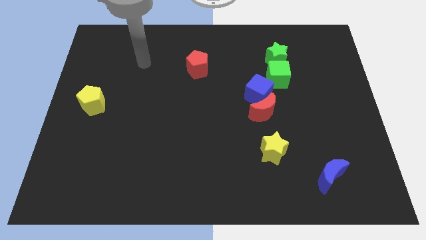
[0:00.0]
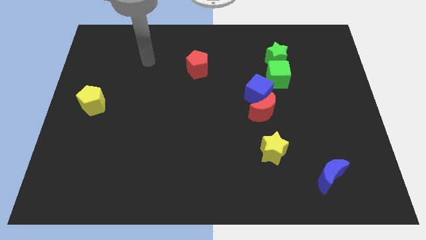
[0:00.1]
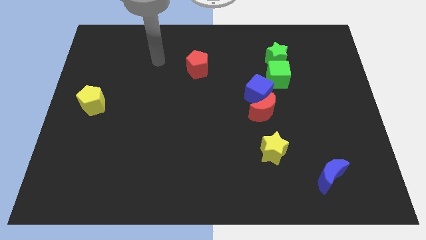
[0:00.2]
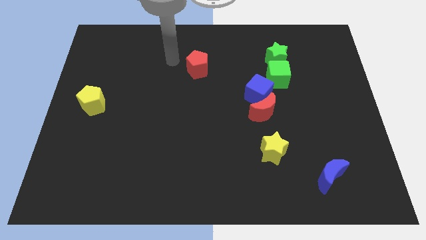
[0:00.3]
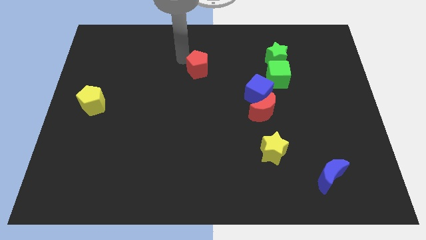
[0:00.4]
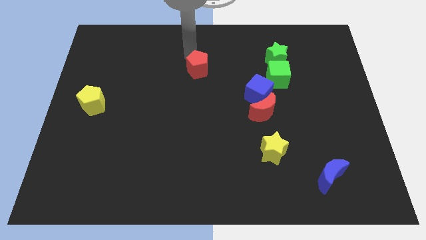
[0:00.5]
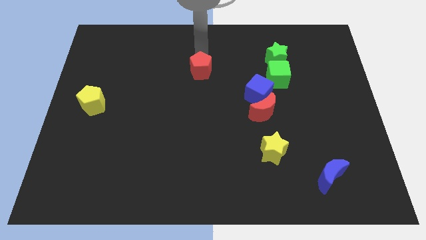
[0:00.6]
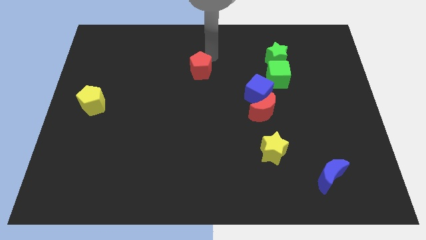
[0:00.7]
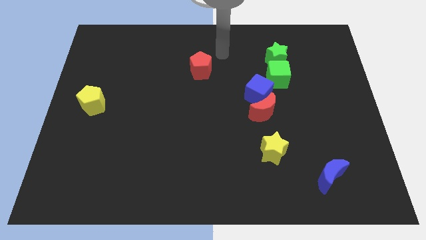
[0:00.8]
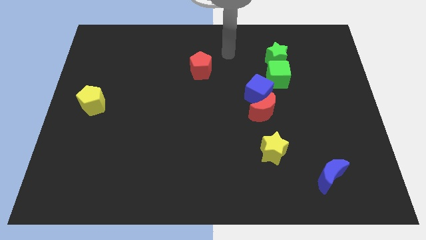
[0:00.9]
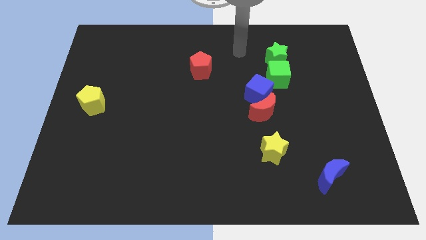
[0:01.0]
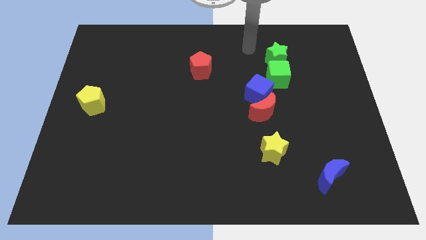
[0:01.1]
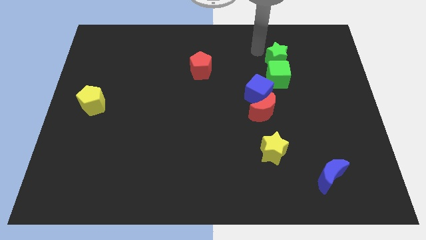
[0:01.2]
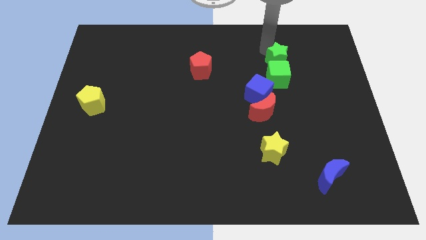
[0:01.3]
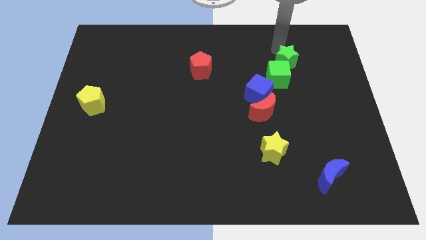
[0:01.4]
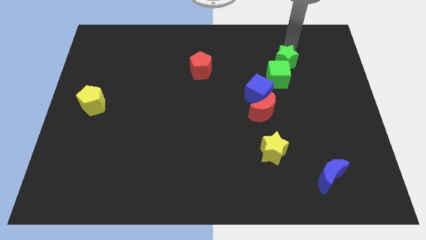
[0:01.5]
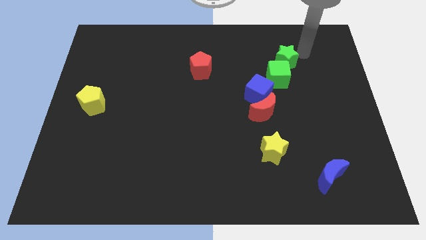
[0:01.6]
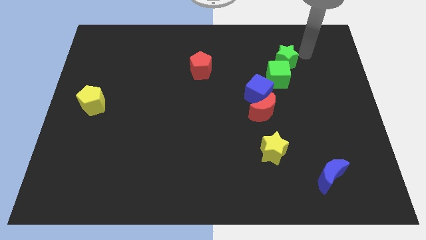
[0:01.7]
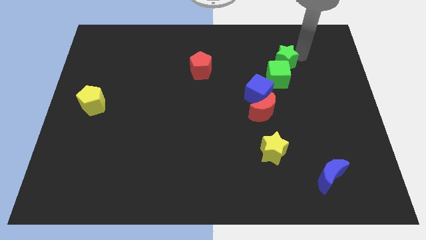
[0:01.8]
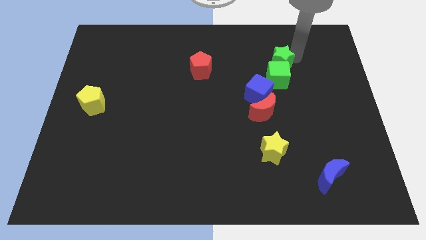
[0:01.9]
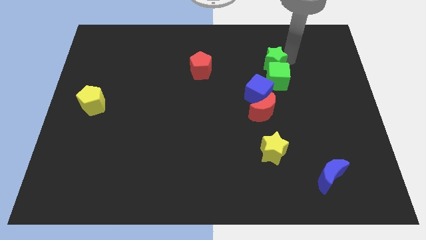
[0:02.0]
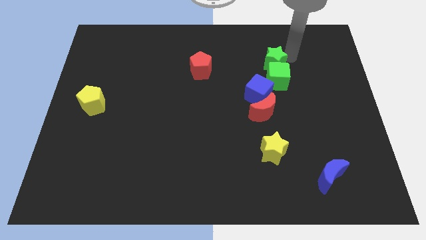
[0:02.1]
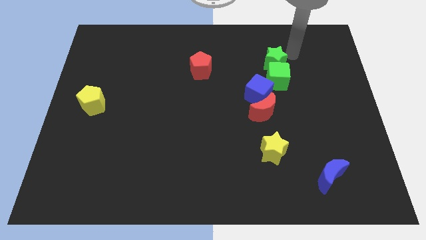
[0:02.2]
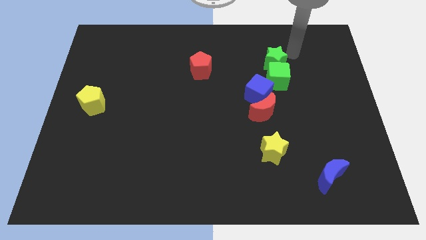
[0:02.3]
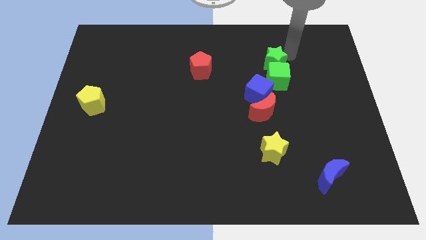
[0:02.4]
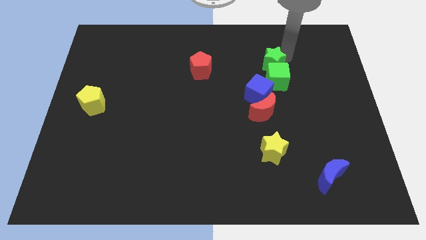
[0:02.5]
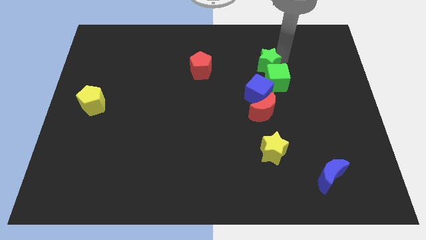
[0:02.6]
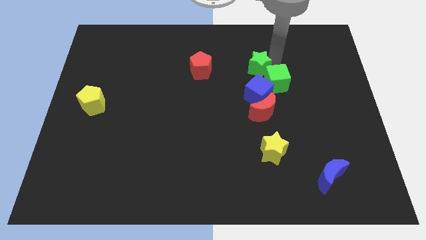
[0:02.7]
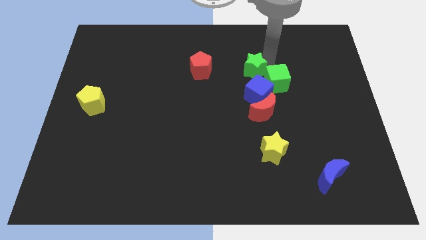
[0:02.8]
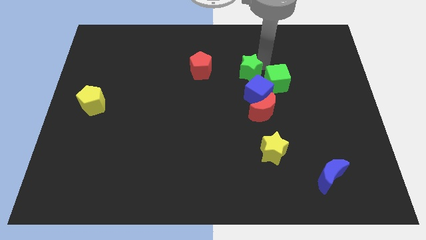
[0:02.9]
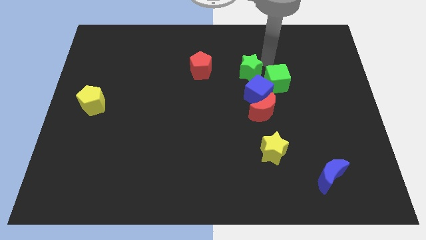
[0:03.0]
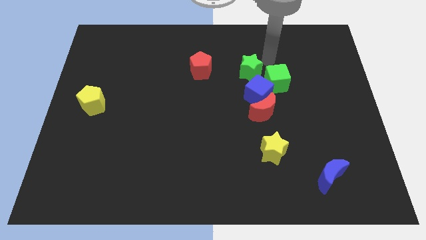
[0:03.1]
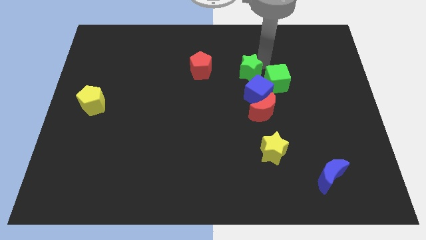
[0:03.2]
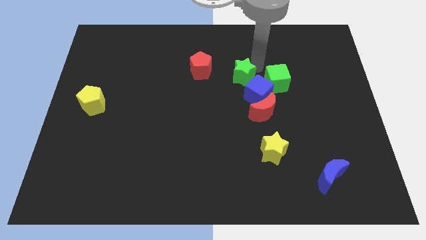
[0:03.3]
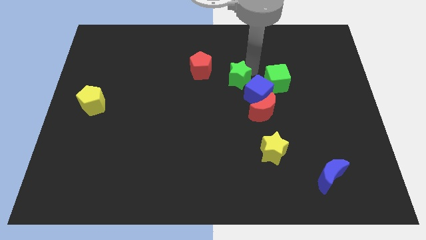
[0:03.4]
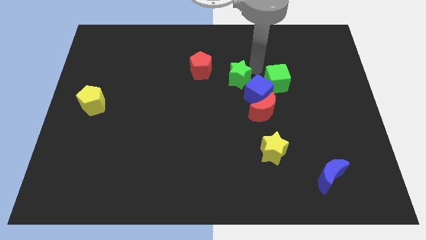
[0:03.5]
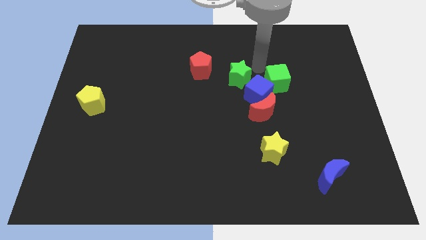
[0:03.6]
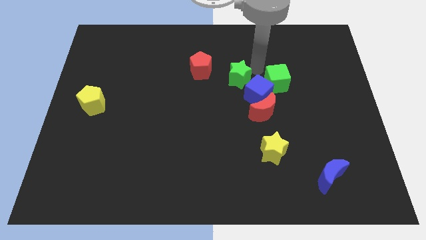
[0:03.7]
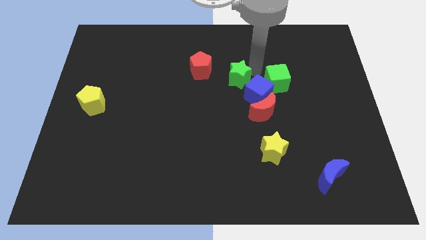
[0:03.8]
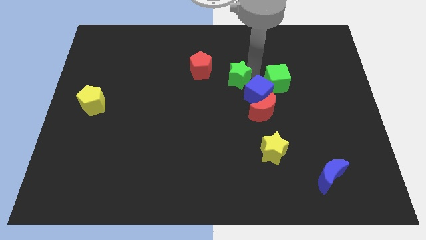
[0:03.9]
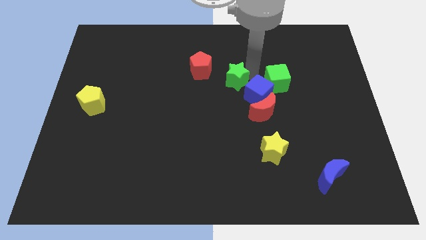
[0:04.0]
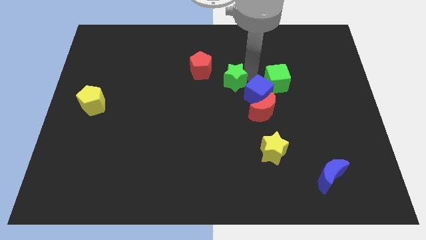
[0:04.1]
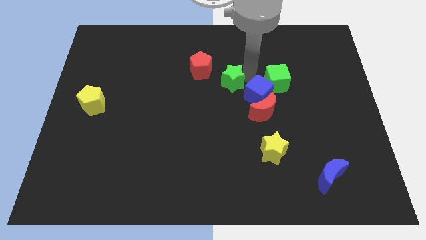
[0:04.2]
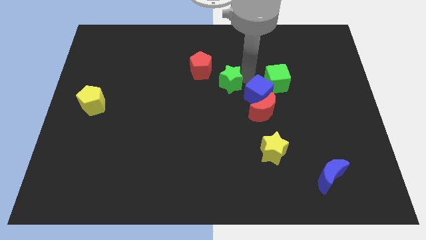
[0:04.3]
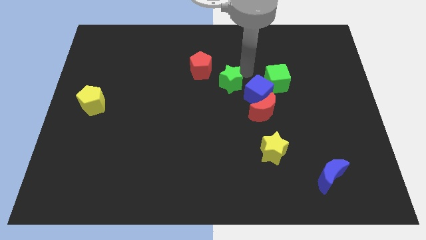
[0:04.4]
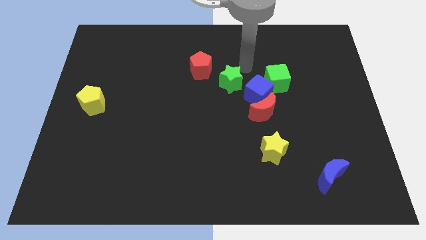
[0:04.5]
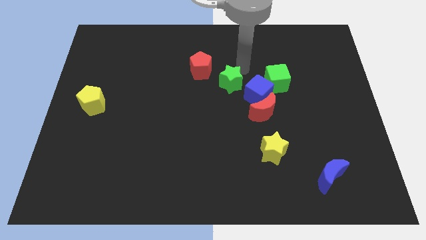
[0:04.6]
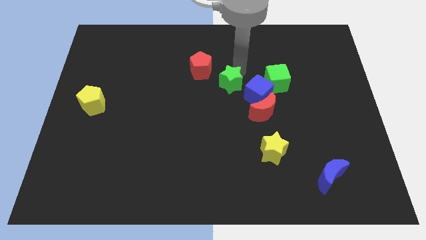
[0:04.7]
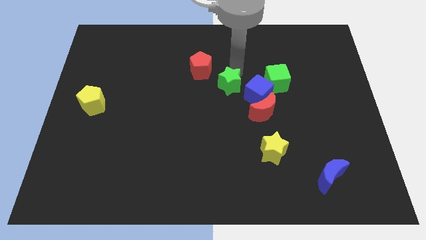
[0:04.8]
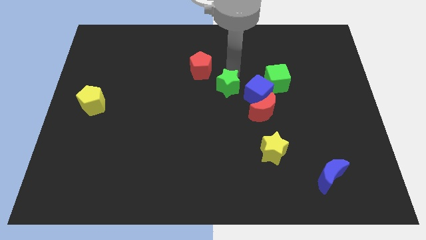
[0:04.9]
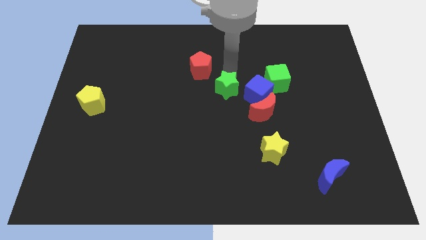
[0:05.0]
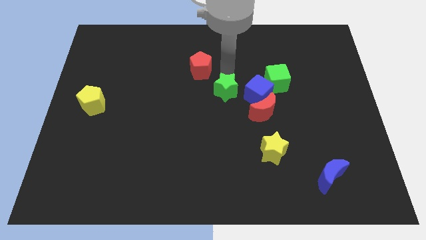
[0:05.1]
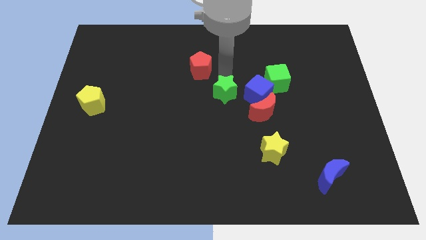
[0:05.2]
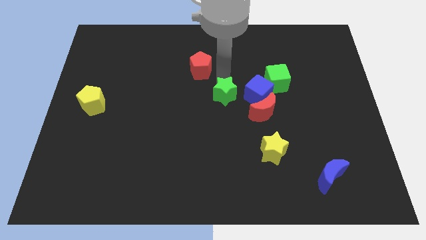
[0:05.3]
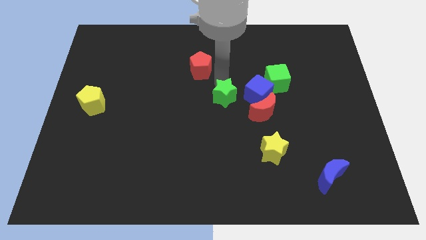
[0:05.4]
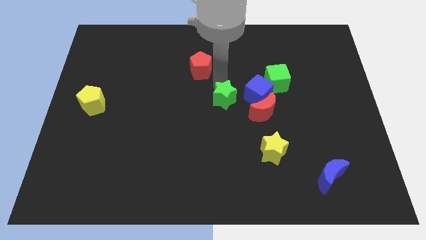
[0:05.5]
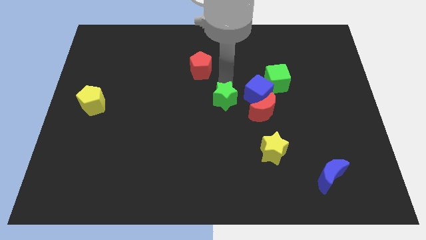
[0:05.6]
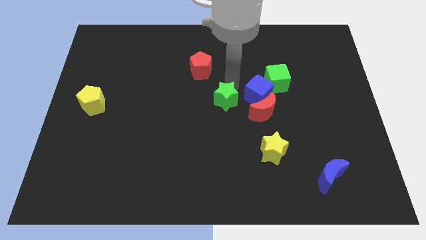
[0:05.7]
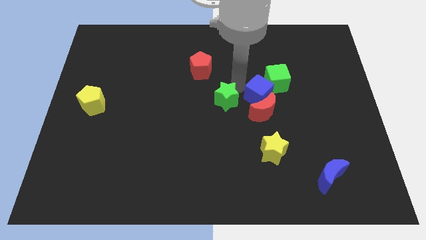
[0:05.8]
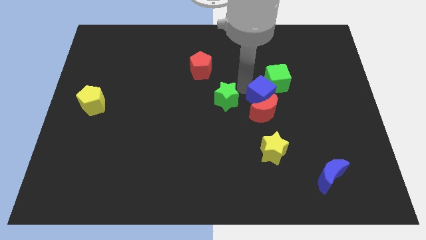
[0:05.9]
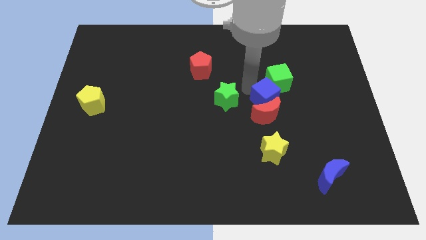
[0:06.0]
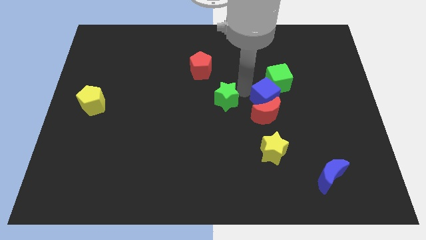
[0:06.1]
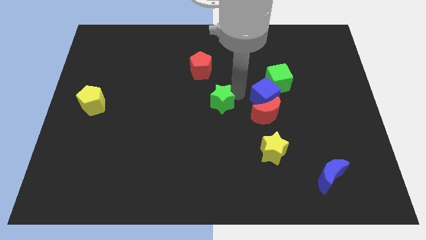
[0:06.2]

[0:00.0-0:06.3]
move the green star diagonally downwards and left

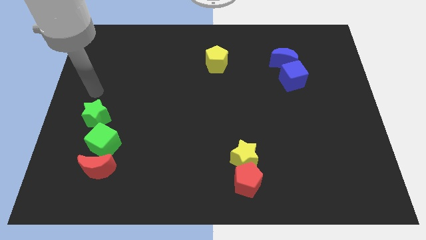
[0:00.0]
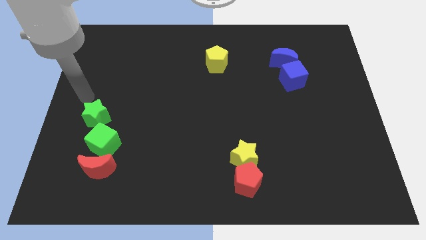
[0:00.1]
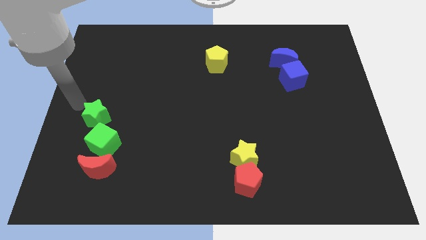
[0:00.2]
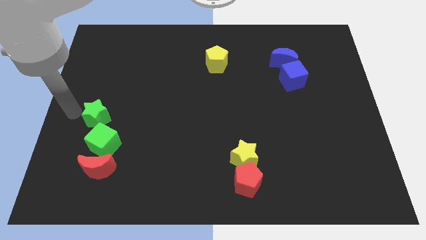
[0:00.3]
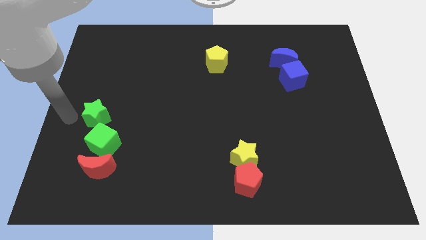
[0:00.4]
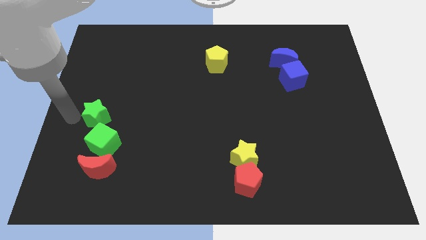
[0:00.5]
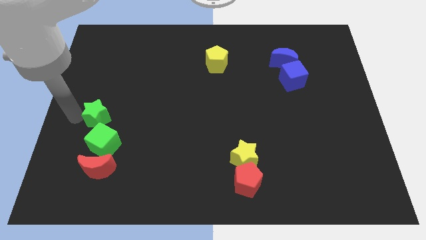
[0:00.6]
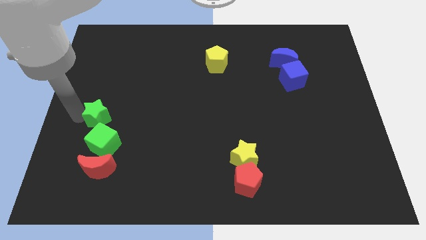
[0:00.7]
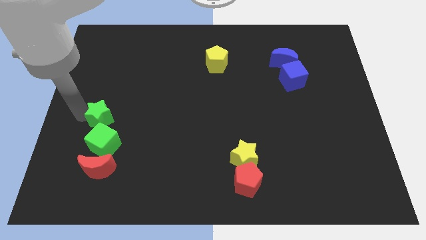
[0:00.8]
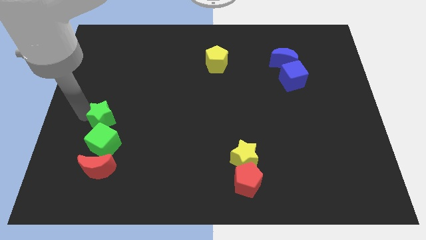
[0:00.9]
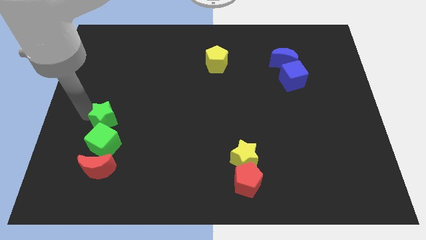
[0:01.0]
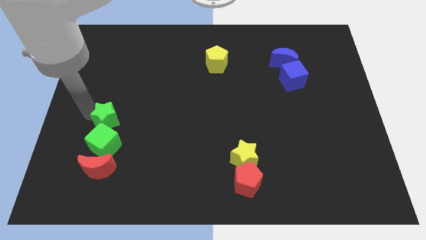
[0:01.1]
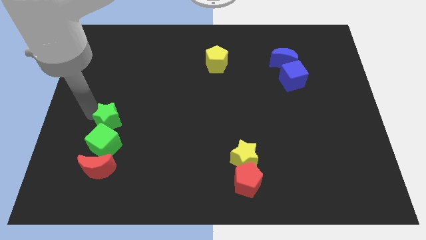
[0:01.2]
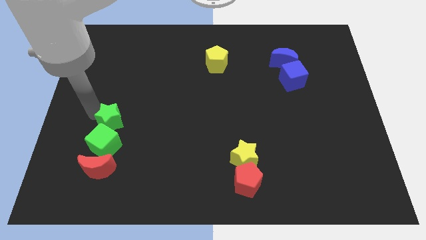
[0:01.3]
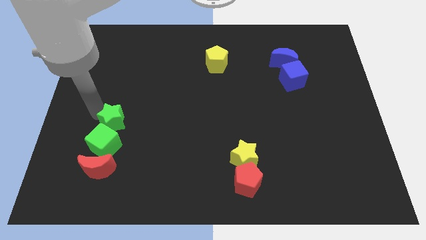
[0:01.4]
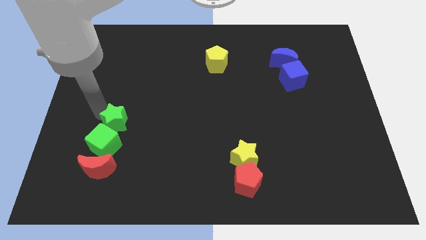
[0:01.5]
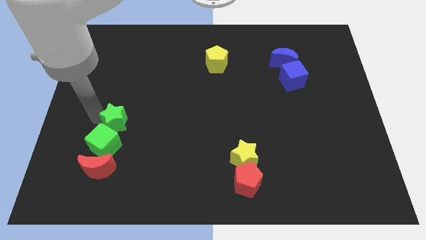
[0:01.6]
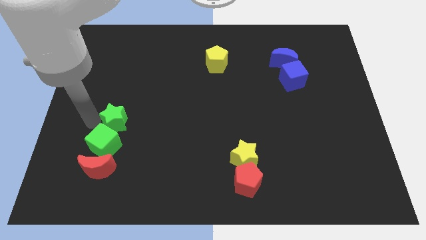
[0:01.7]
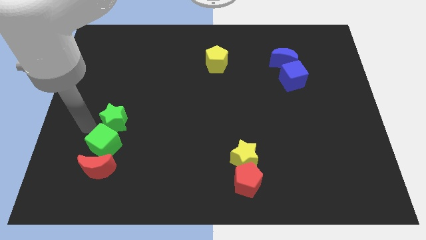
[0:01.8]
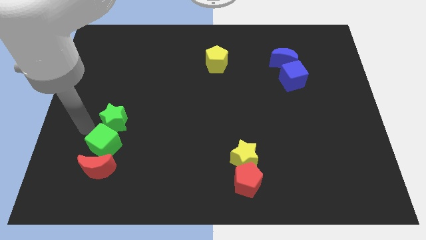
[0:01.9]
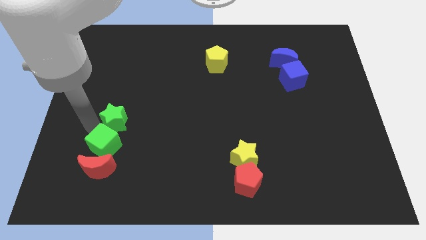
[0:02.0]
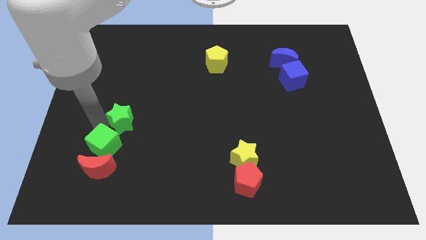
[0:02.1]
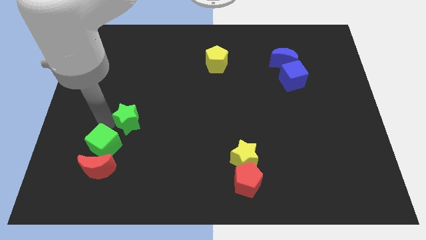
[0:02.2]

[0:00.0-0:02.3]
push the green star right a little
